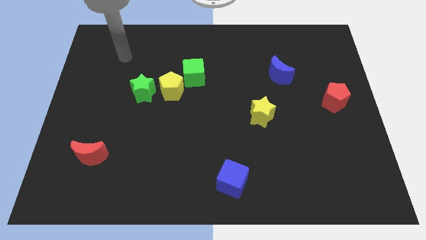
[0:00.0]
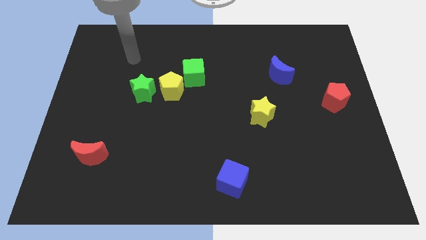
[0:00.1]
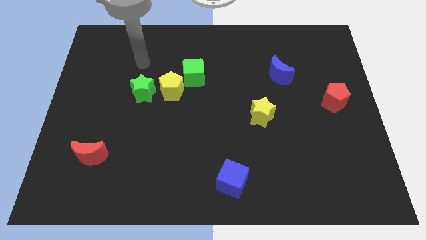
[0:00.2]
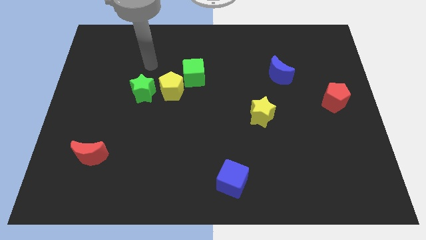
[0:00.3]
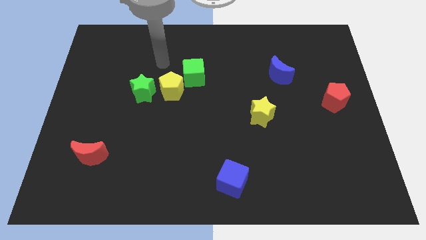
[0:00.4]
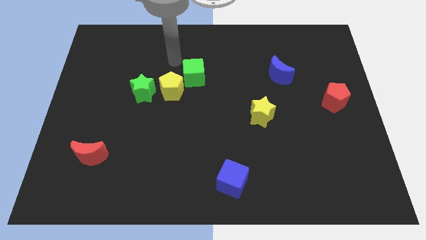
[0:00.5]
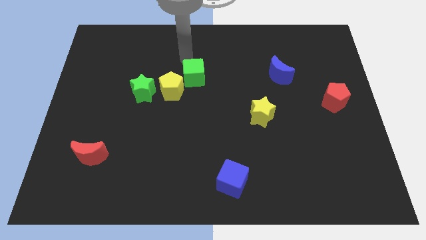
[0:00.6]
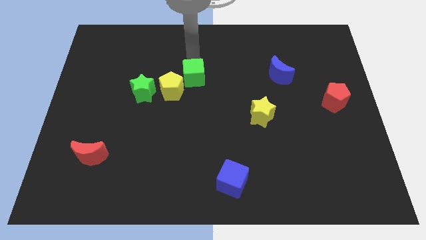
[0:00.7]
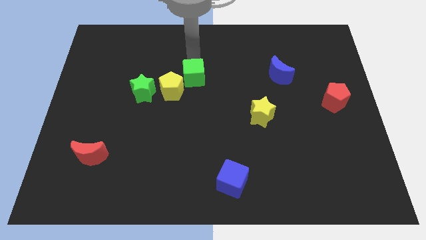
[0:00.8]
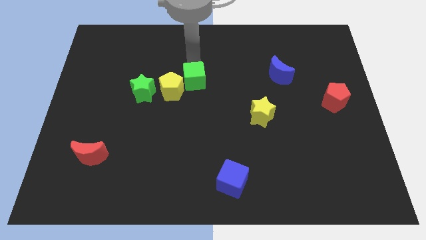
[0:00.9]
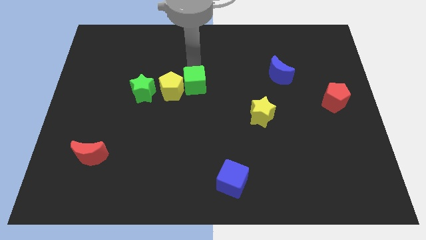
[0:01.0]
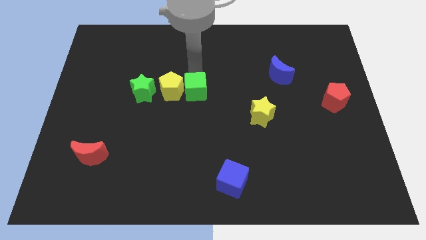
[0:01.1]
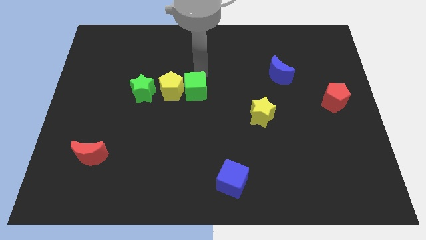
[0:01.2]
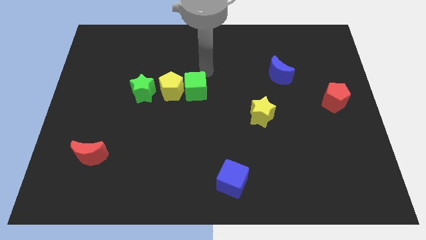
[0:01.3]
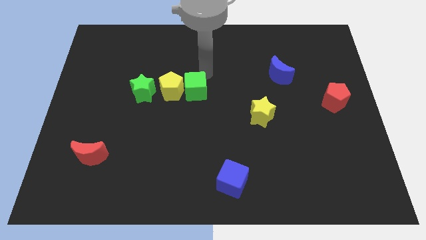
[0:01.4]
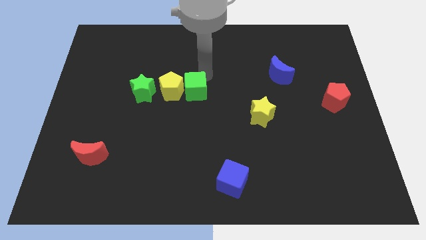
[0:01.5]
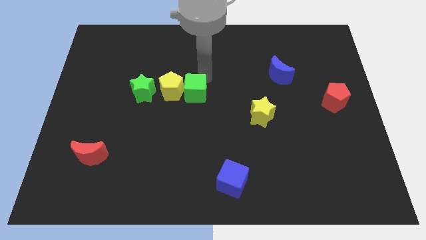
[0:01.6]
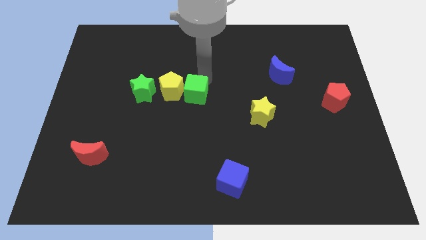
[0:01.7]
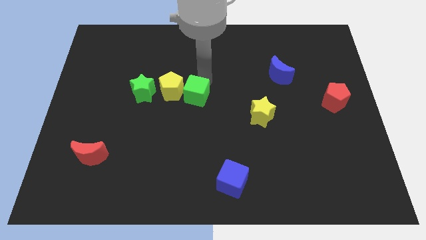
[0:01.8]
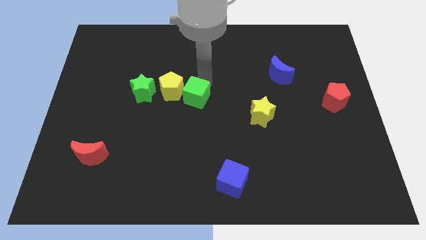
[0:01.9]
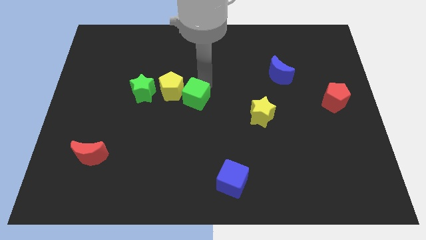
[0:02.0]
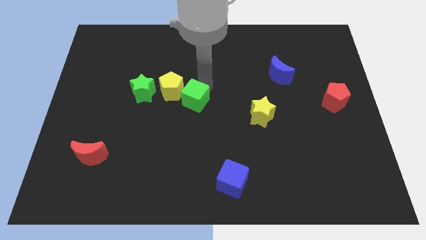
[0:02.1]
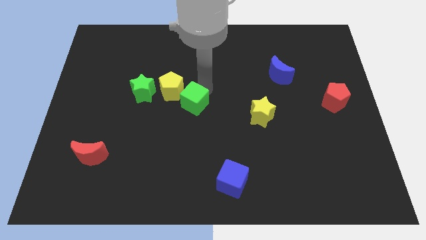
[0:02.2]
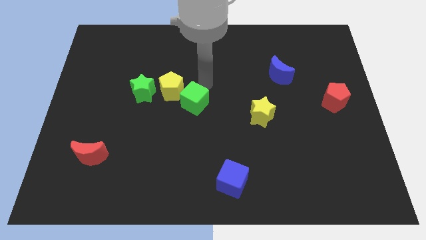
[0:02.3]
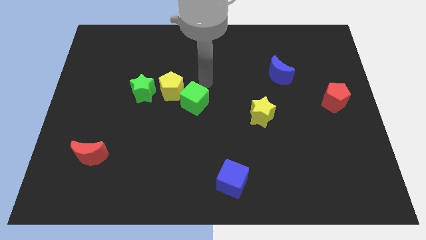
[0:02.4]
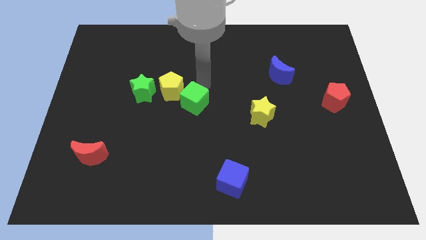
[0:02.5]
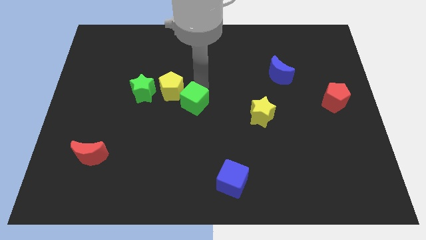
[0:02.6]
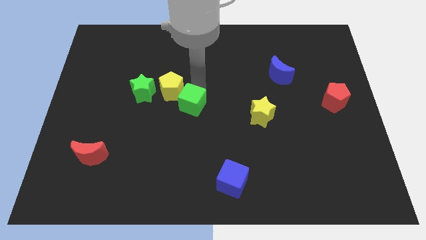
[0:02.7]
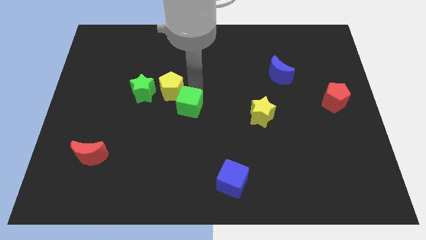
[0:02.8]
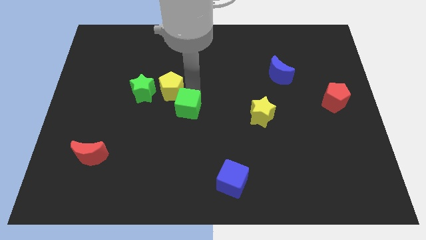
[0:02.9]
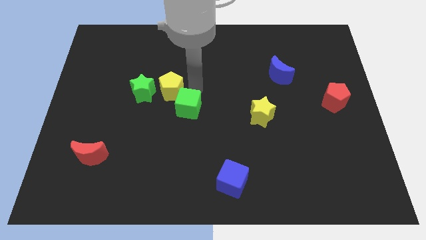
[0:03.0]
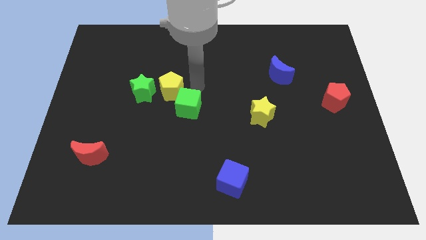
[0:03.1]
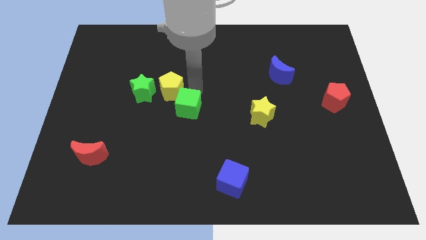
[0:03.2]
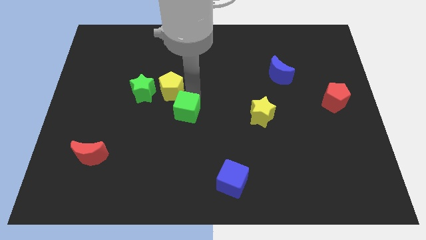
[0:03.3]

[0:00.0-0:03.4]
slightly slide the green cube down and left

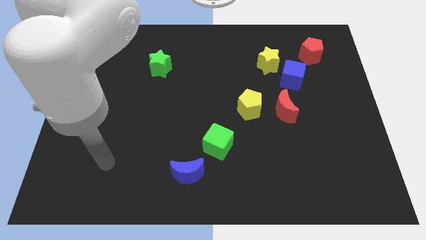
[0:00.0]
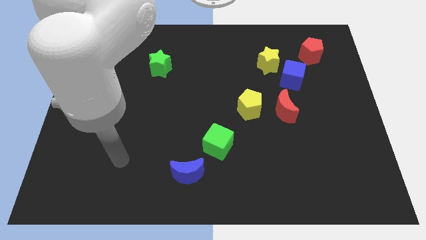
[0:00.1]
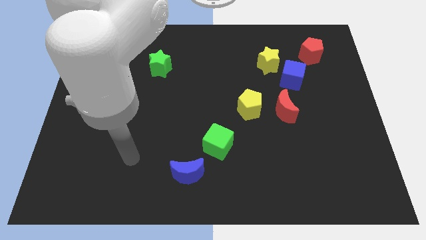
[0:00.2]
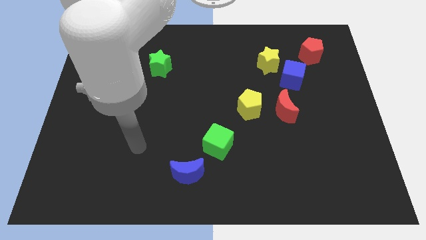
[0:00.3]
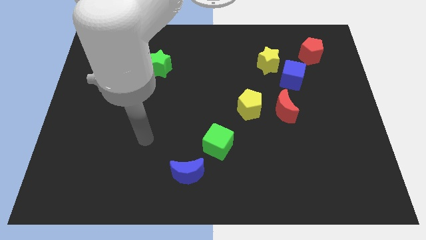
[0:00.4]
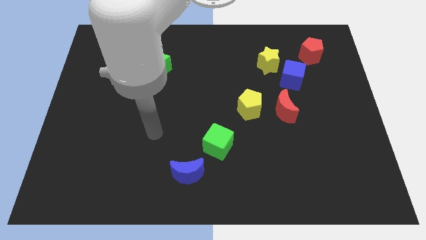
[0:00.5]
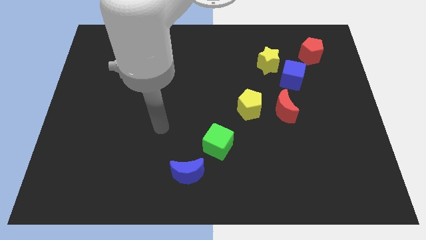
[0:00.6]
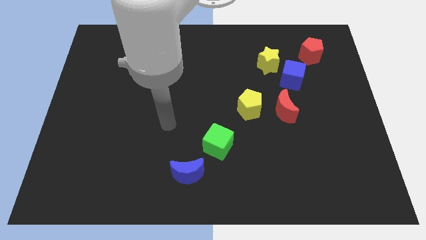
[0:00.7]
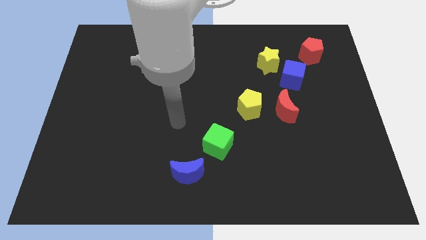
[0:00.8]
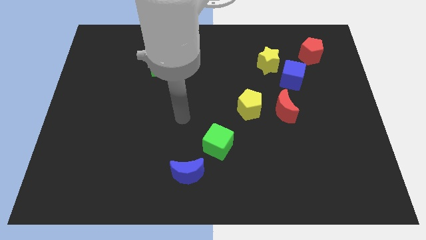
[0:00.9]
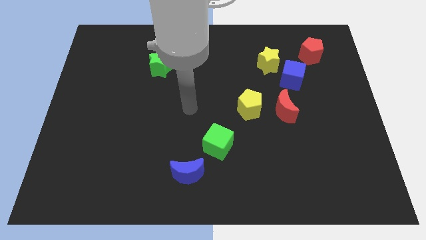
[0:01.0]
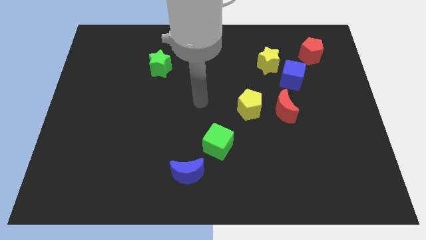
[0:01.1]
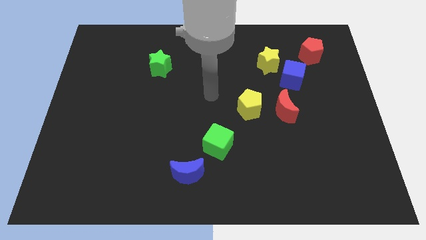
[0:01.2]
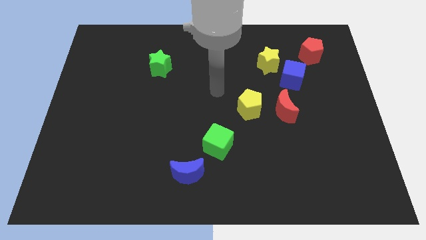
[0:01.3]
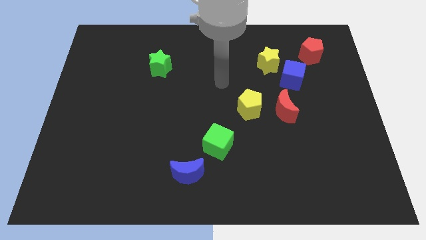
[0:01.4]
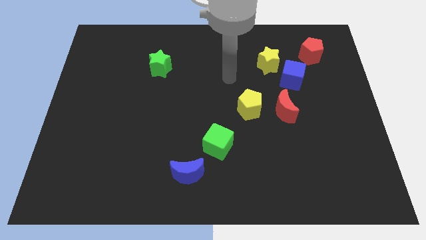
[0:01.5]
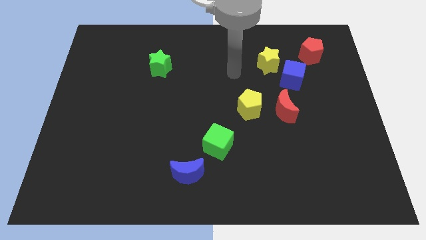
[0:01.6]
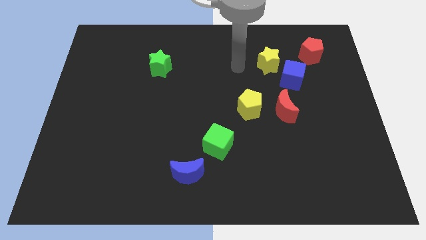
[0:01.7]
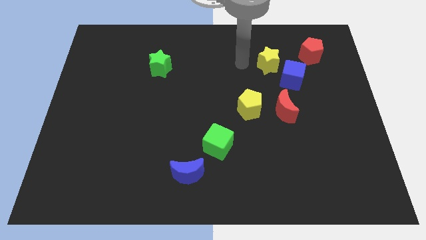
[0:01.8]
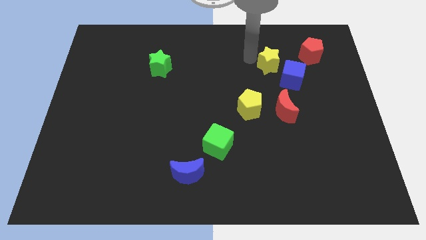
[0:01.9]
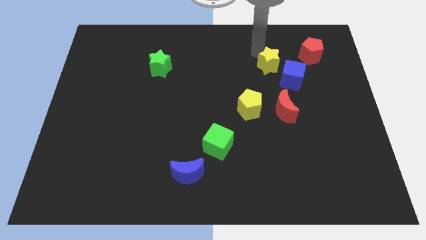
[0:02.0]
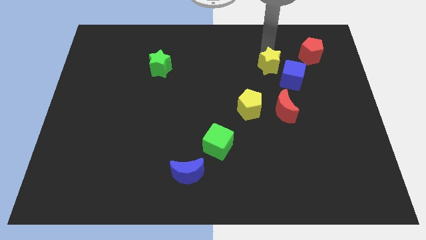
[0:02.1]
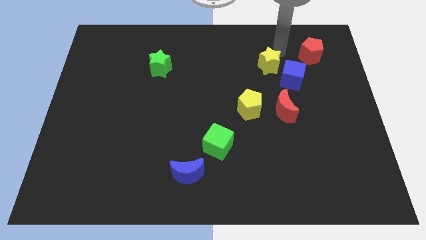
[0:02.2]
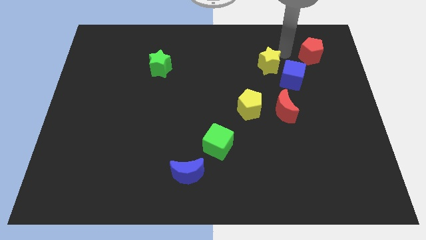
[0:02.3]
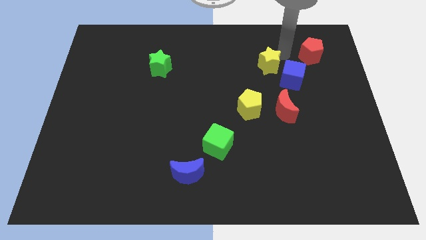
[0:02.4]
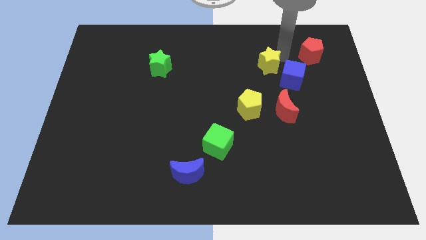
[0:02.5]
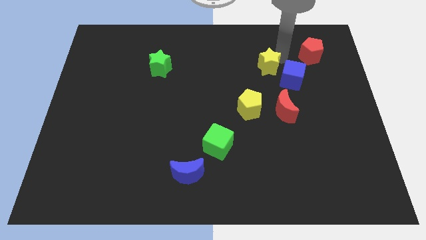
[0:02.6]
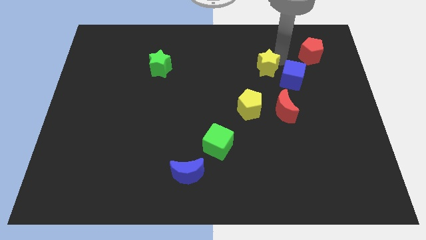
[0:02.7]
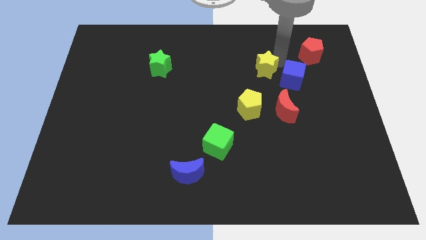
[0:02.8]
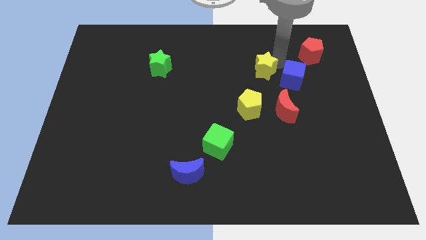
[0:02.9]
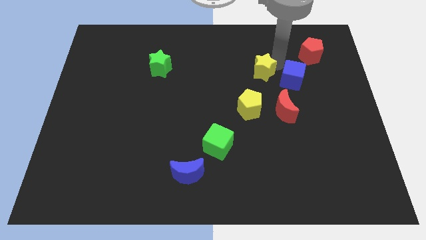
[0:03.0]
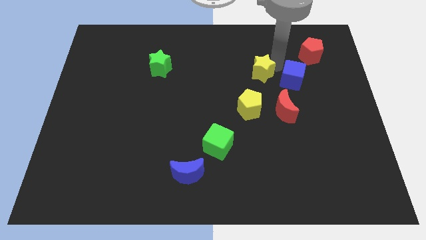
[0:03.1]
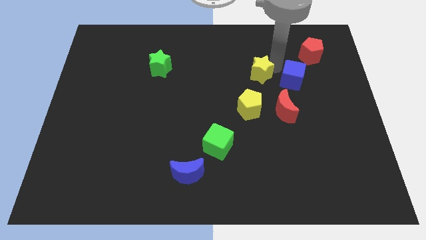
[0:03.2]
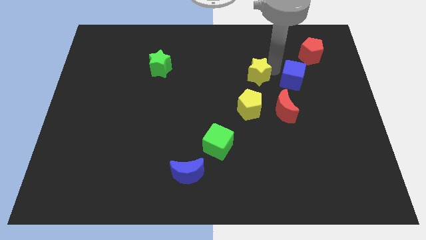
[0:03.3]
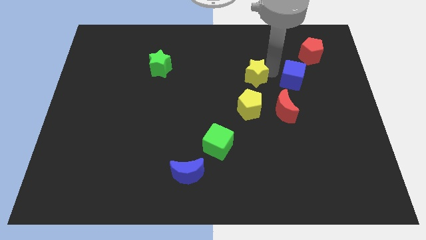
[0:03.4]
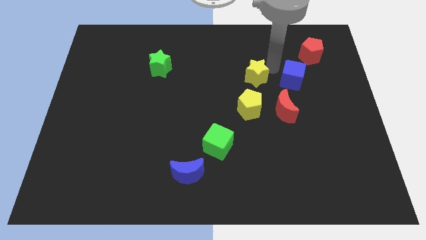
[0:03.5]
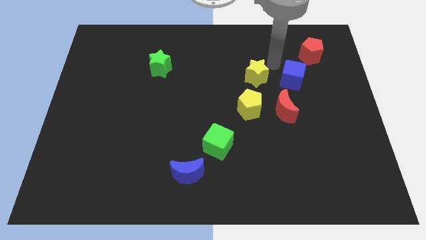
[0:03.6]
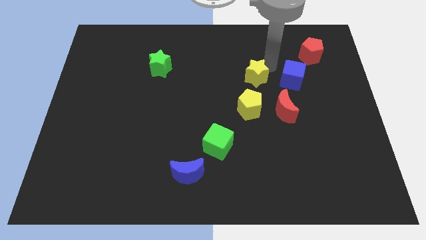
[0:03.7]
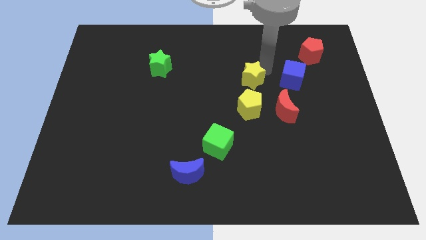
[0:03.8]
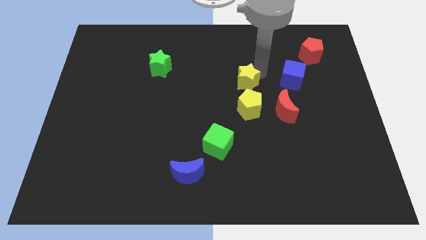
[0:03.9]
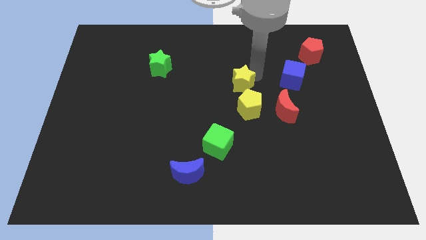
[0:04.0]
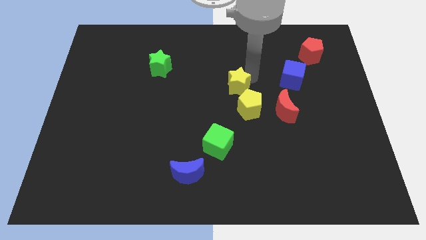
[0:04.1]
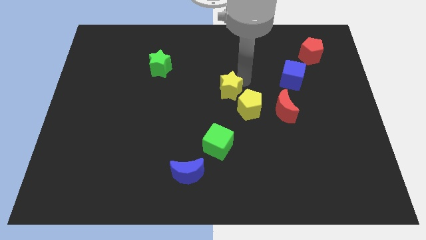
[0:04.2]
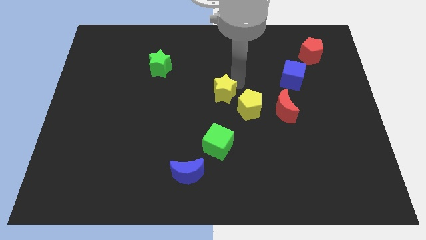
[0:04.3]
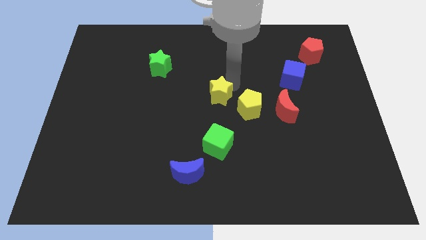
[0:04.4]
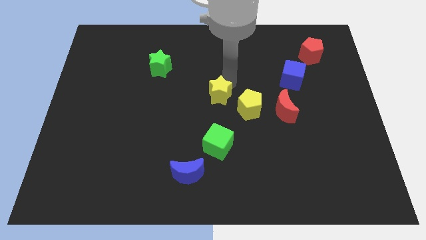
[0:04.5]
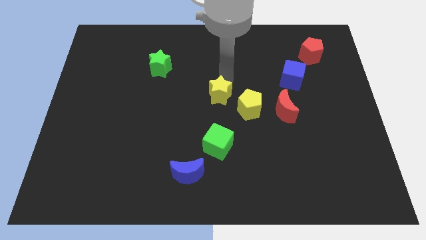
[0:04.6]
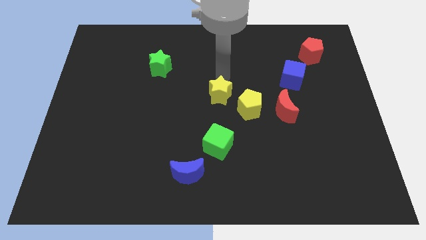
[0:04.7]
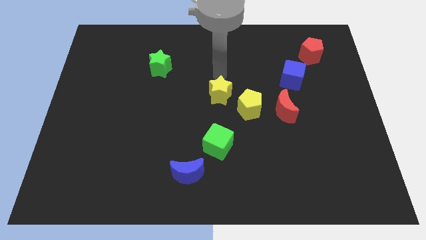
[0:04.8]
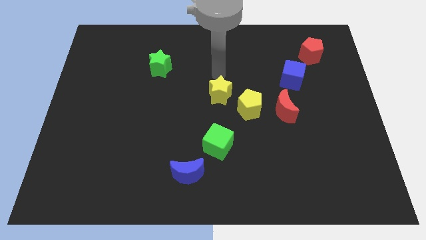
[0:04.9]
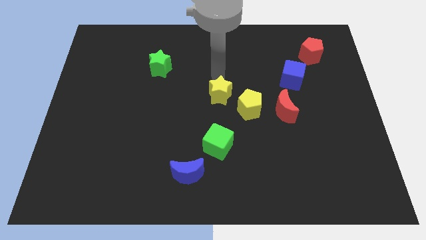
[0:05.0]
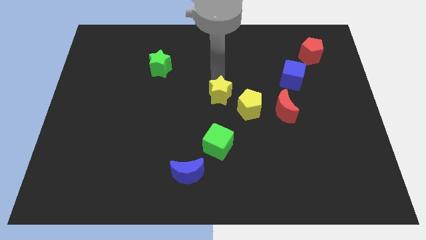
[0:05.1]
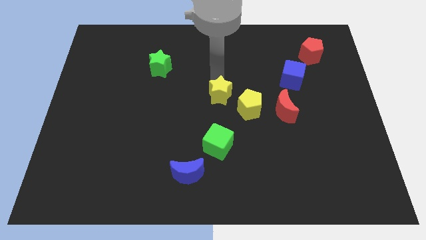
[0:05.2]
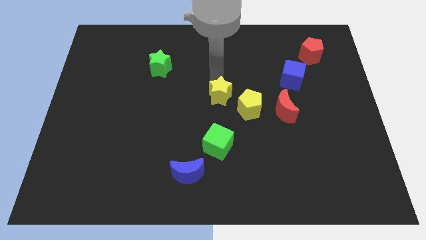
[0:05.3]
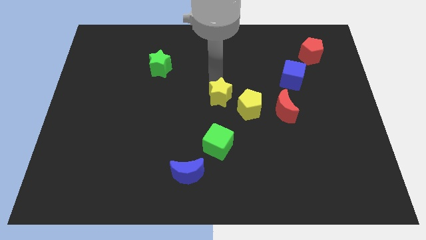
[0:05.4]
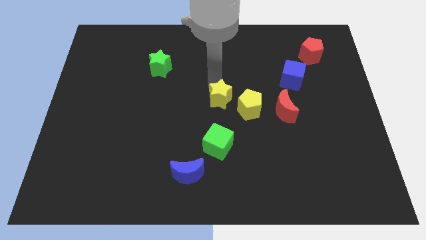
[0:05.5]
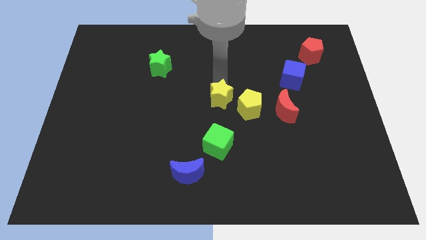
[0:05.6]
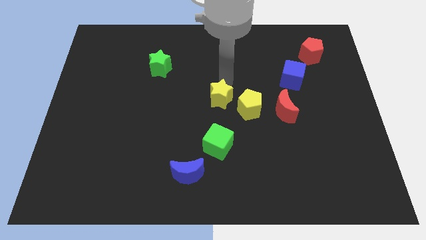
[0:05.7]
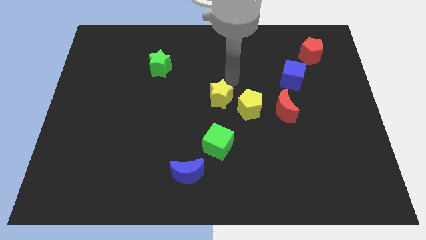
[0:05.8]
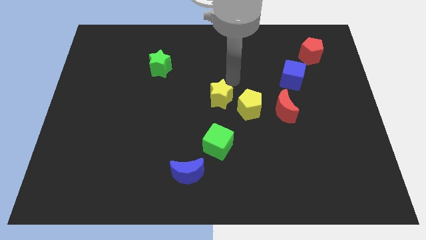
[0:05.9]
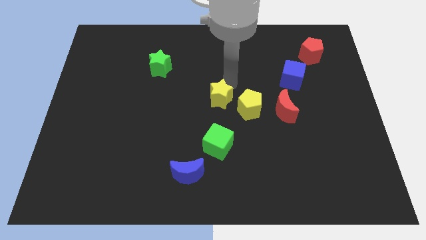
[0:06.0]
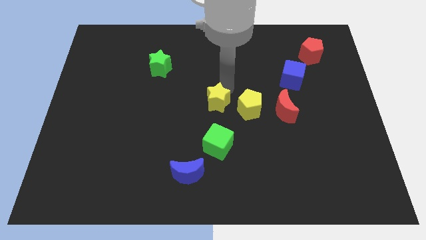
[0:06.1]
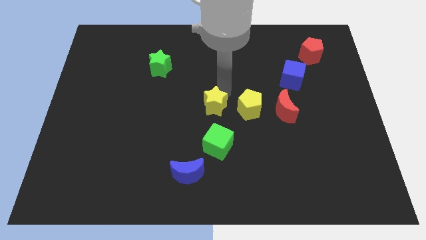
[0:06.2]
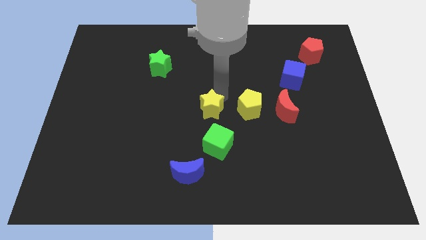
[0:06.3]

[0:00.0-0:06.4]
push the yellow star down and left diagonally
